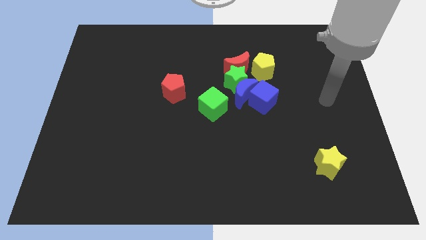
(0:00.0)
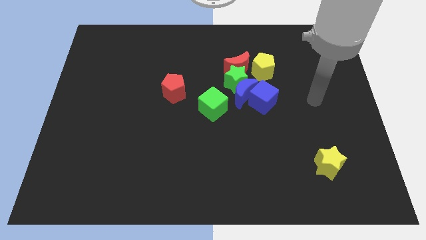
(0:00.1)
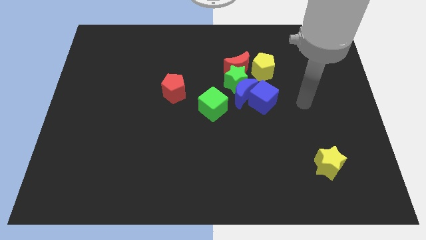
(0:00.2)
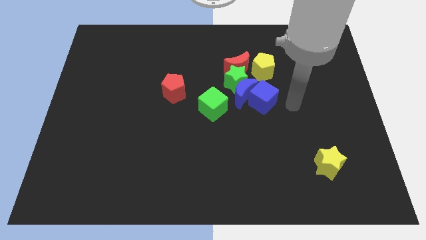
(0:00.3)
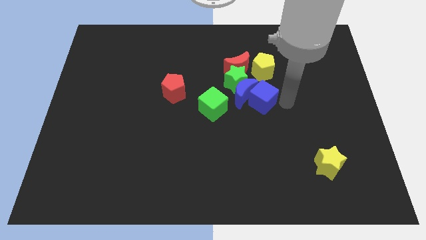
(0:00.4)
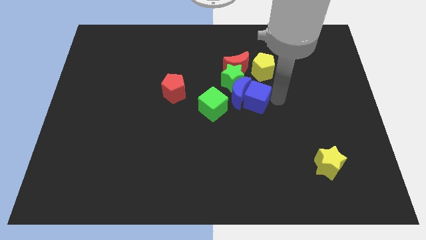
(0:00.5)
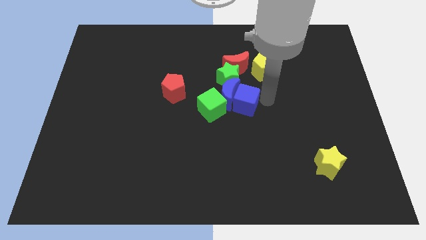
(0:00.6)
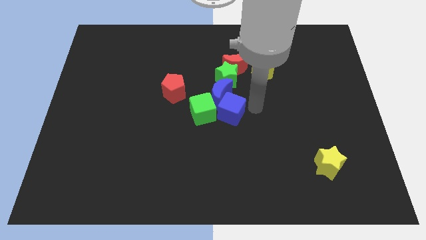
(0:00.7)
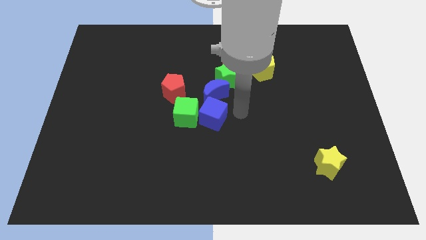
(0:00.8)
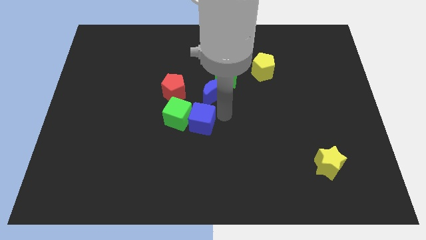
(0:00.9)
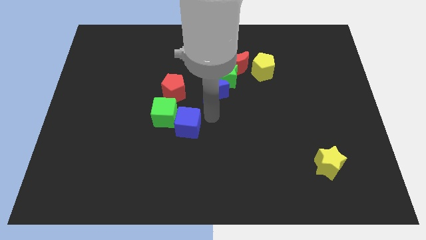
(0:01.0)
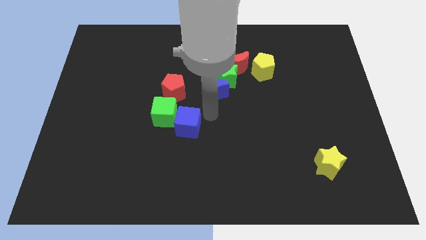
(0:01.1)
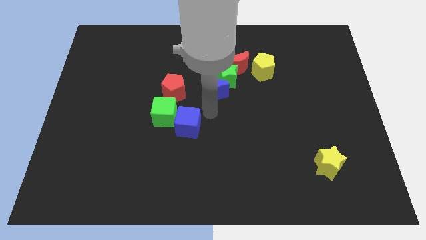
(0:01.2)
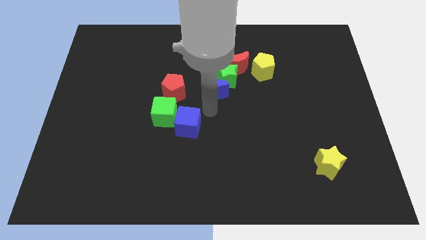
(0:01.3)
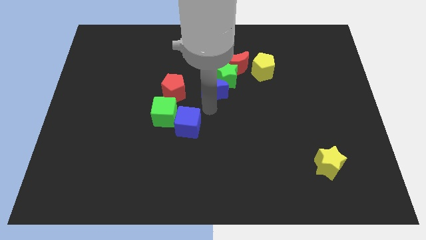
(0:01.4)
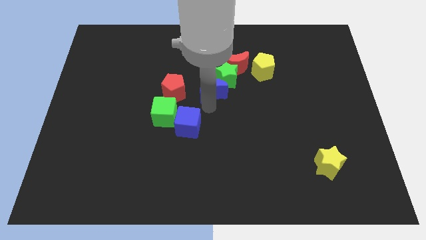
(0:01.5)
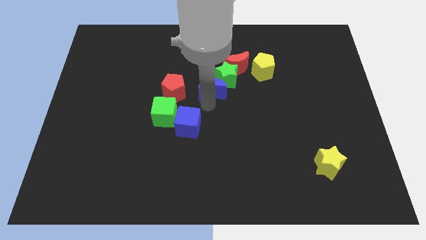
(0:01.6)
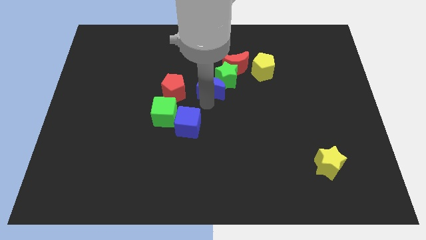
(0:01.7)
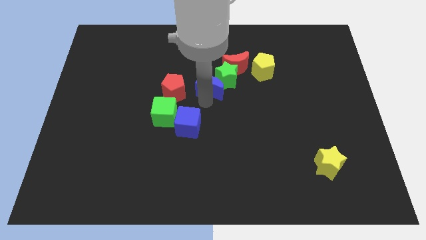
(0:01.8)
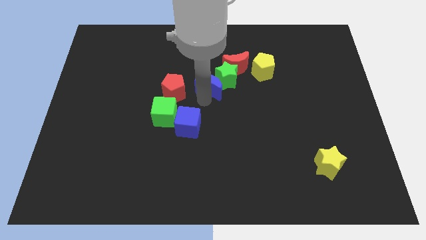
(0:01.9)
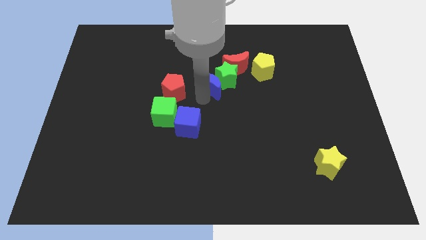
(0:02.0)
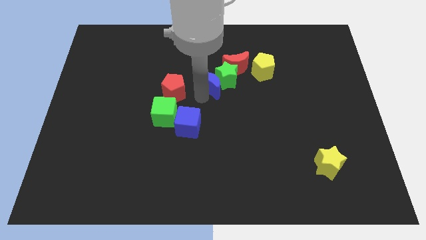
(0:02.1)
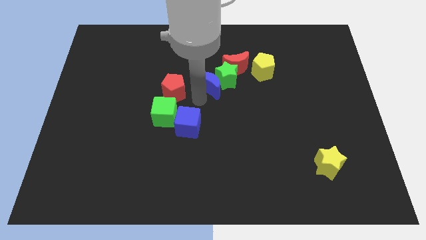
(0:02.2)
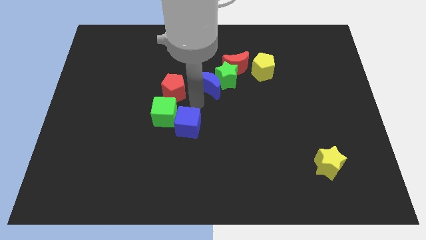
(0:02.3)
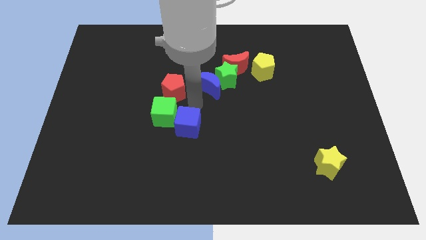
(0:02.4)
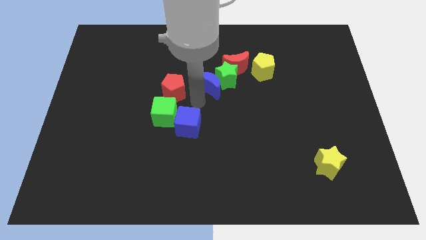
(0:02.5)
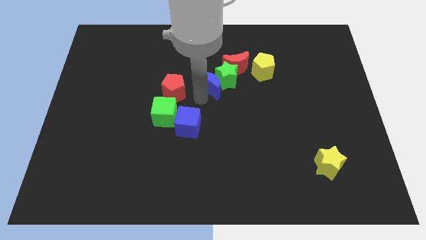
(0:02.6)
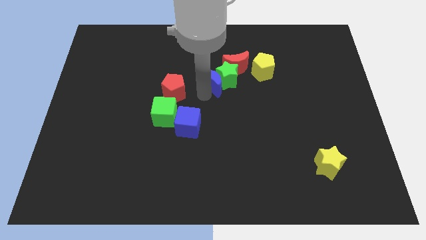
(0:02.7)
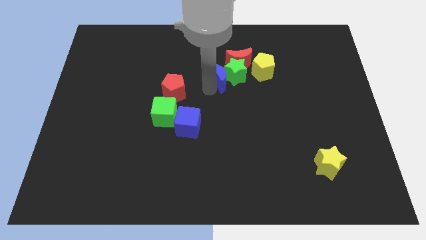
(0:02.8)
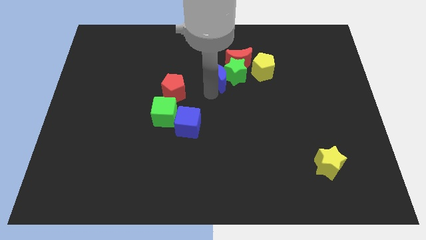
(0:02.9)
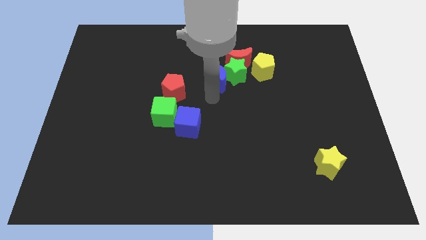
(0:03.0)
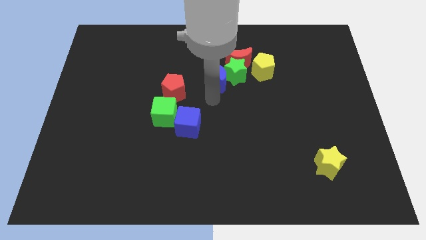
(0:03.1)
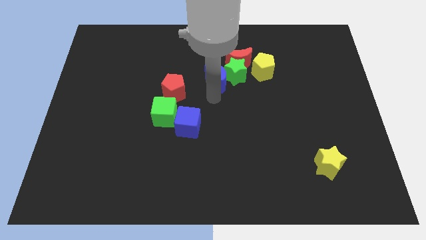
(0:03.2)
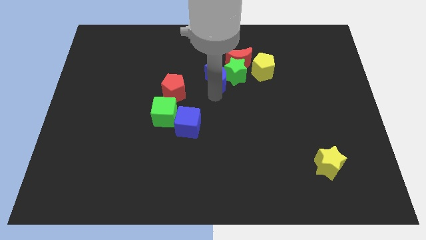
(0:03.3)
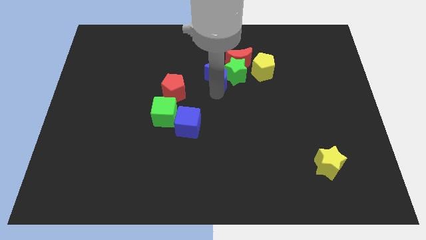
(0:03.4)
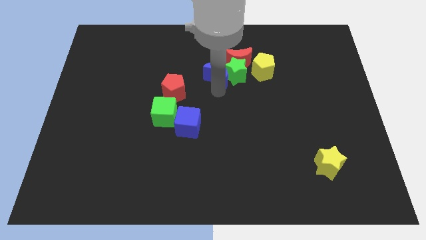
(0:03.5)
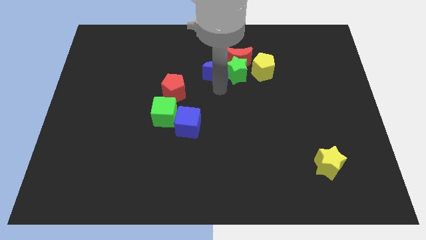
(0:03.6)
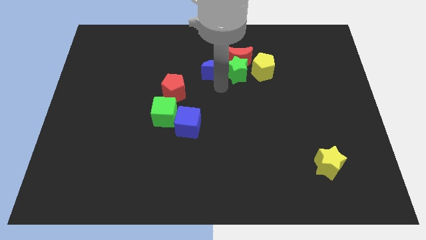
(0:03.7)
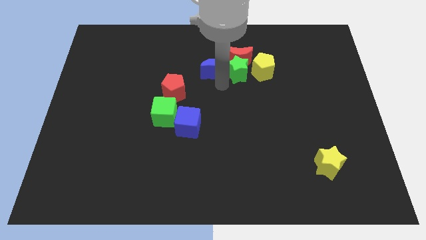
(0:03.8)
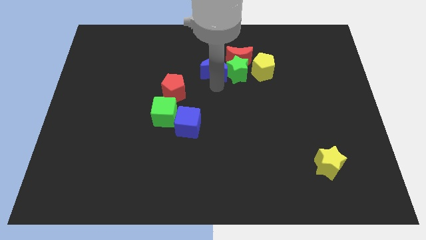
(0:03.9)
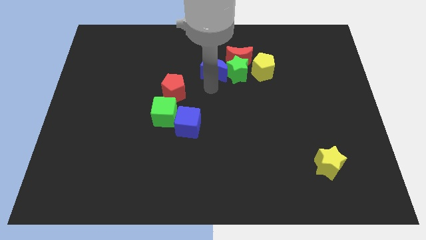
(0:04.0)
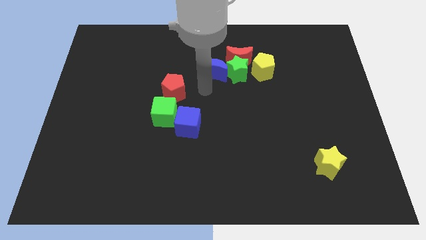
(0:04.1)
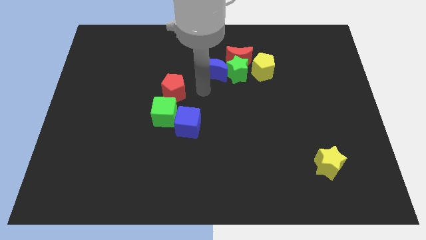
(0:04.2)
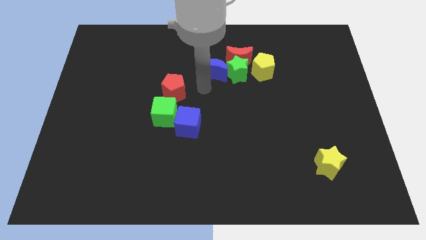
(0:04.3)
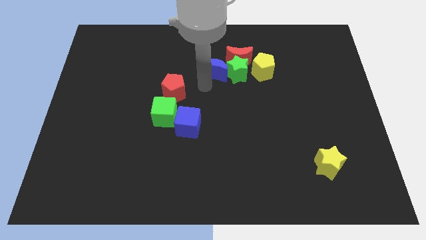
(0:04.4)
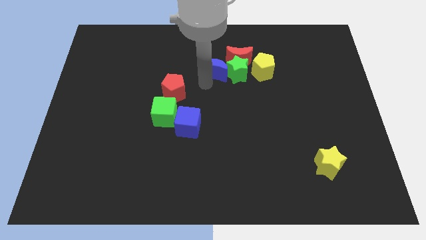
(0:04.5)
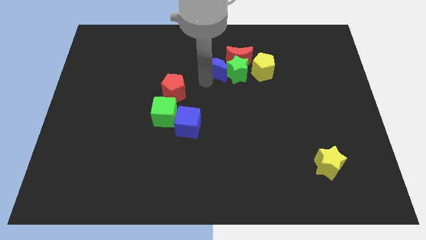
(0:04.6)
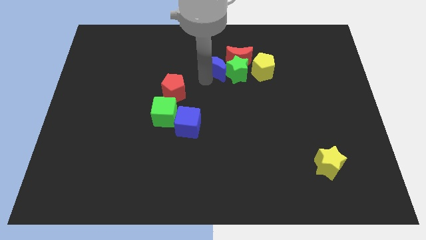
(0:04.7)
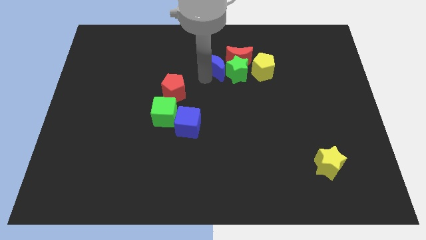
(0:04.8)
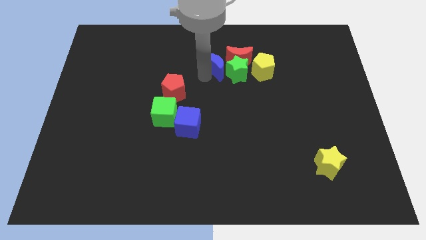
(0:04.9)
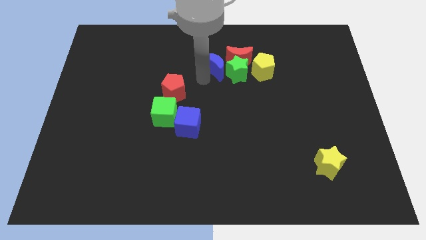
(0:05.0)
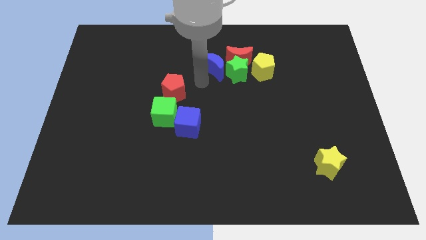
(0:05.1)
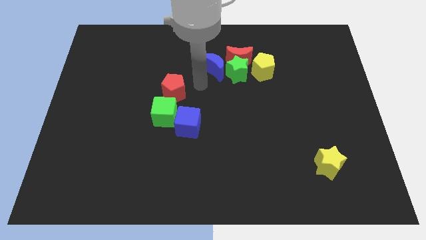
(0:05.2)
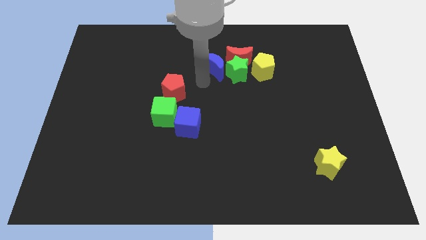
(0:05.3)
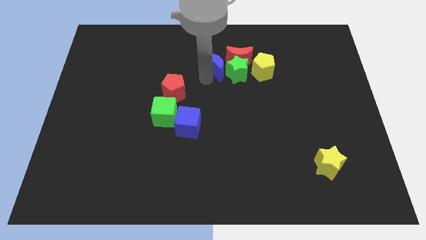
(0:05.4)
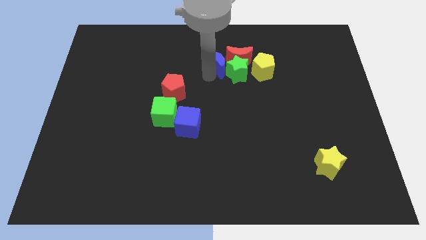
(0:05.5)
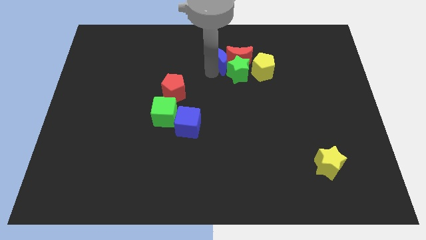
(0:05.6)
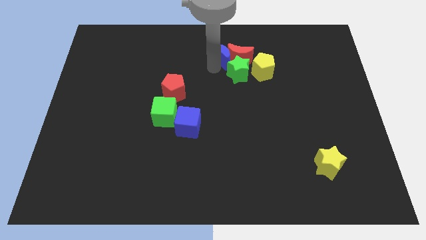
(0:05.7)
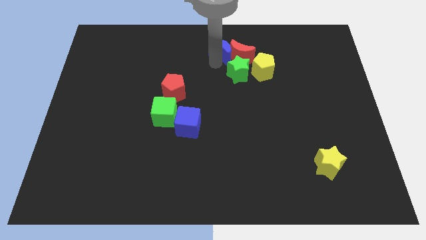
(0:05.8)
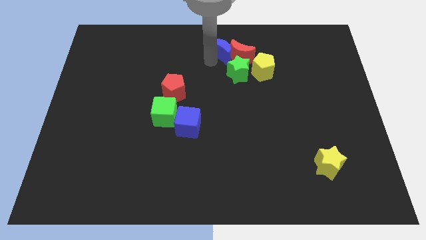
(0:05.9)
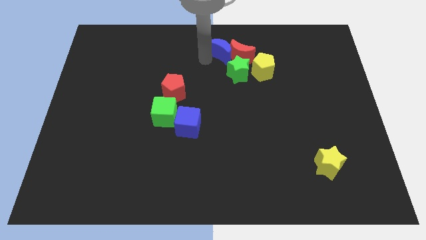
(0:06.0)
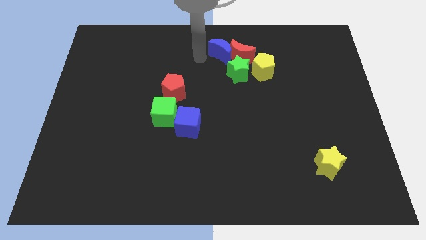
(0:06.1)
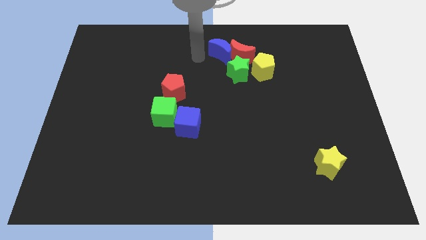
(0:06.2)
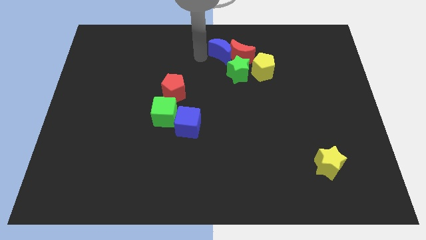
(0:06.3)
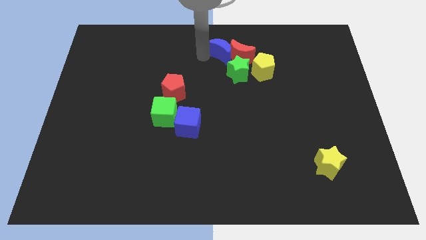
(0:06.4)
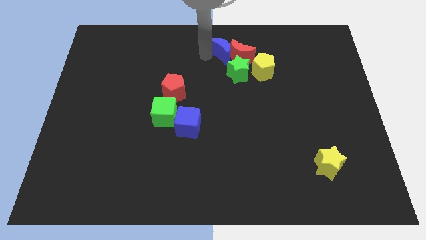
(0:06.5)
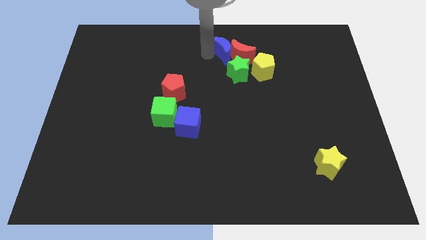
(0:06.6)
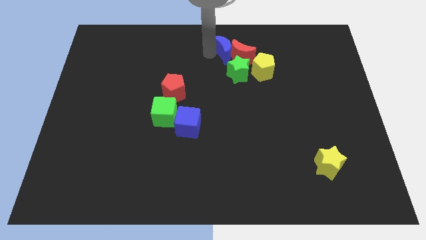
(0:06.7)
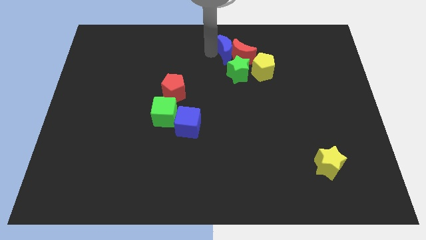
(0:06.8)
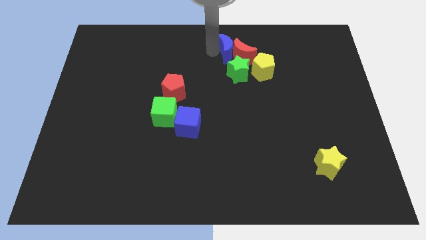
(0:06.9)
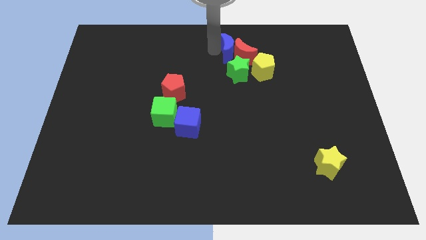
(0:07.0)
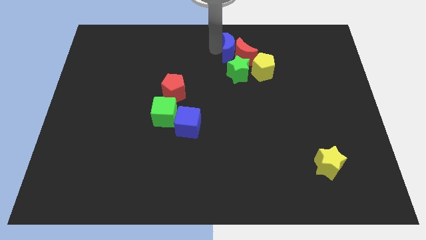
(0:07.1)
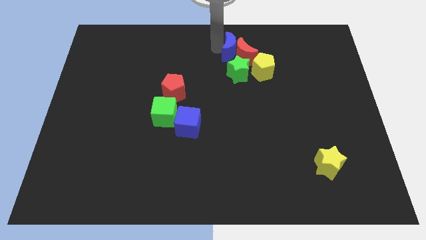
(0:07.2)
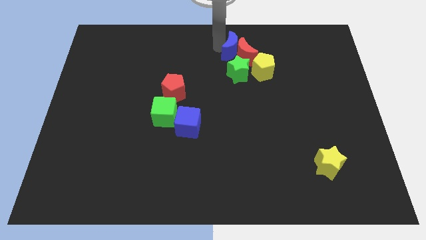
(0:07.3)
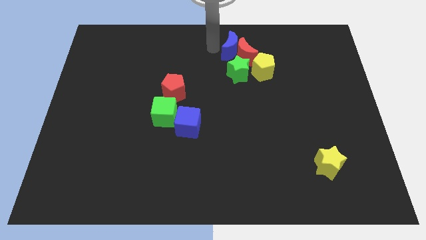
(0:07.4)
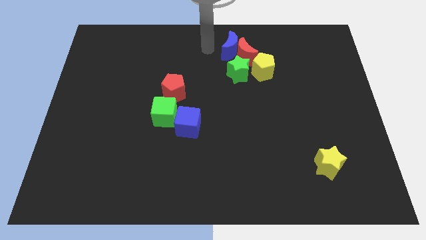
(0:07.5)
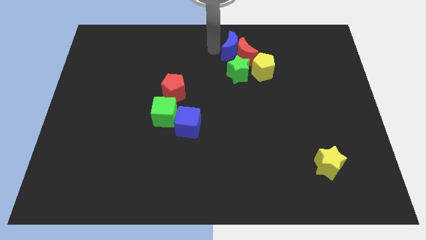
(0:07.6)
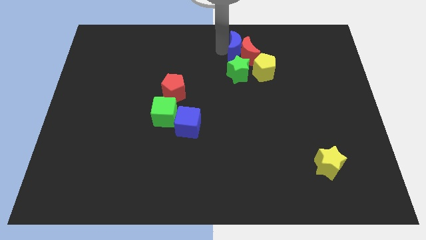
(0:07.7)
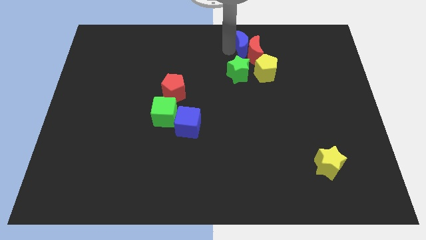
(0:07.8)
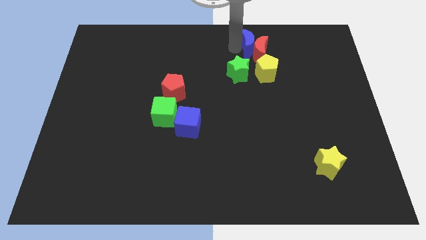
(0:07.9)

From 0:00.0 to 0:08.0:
slide the blue moon a little bit upwards and then to the right

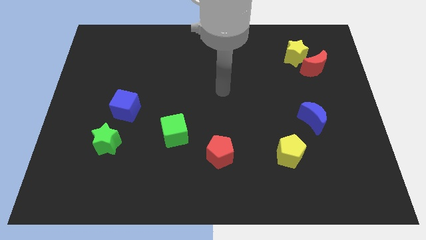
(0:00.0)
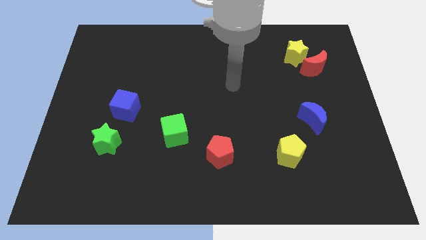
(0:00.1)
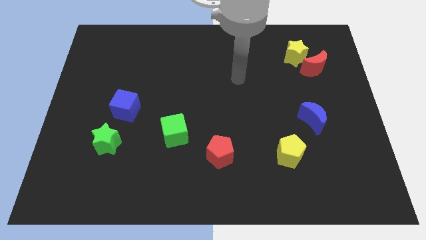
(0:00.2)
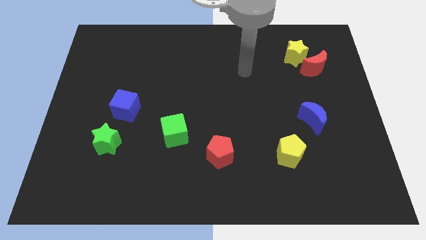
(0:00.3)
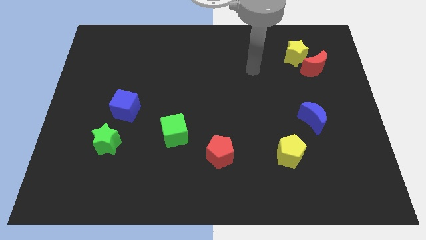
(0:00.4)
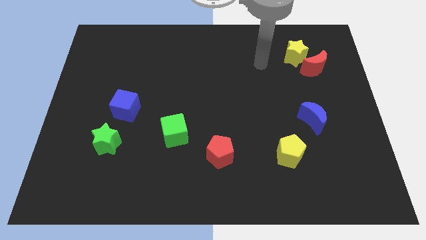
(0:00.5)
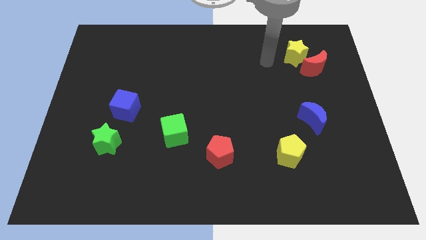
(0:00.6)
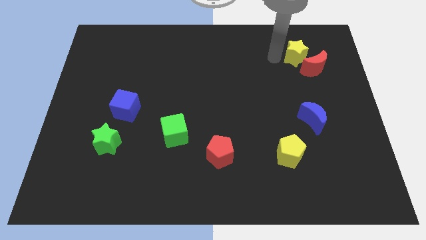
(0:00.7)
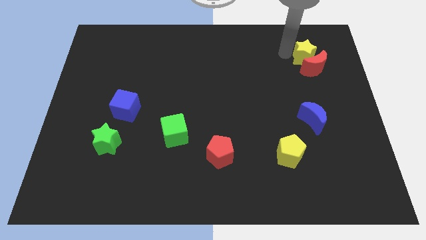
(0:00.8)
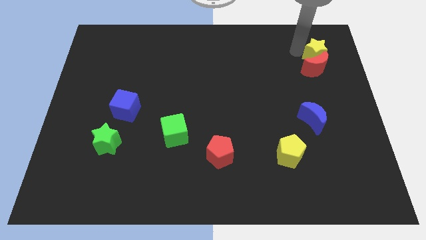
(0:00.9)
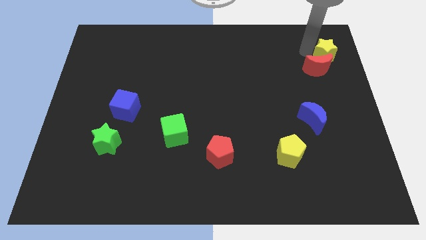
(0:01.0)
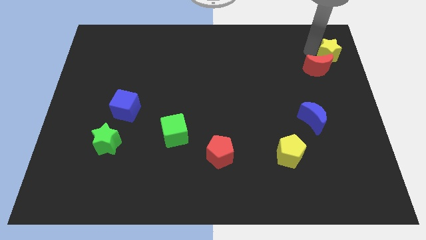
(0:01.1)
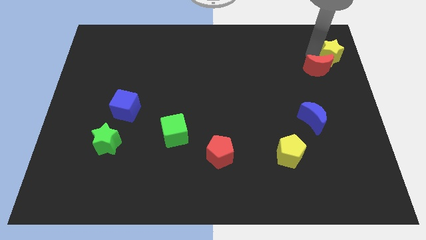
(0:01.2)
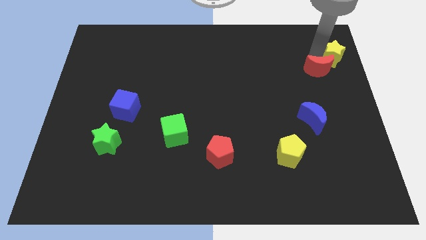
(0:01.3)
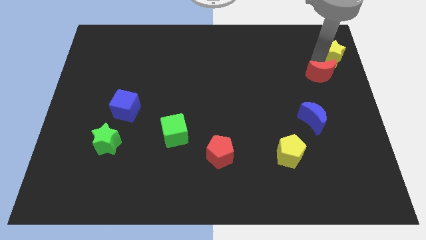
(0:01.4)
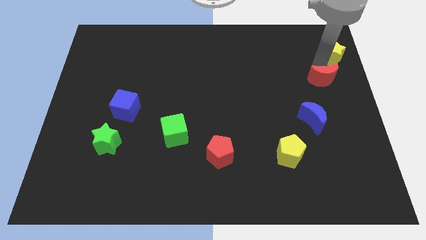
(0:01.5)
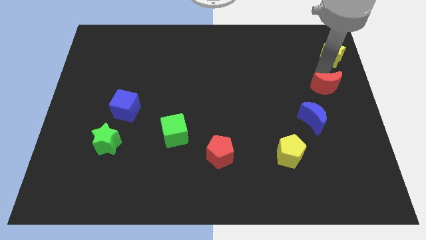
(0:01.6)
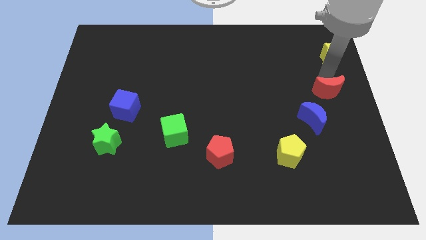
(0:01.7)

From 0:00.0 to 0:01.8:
slide the red moon a little downwards
